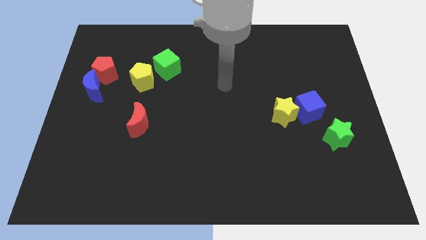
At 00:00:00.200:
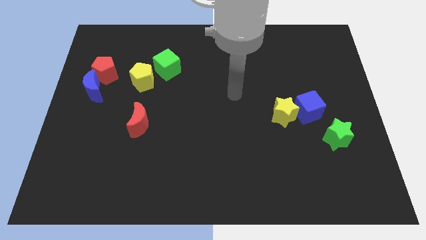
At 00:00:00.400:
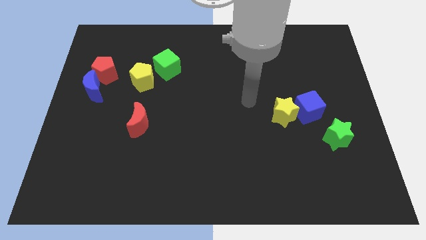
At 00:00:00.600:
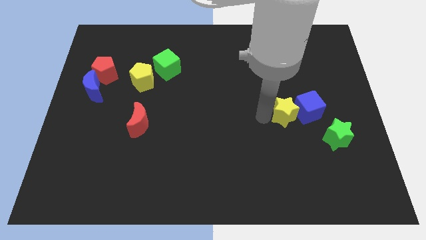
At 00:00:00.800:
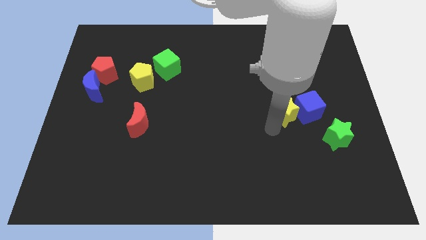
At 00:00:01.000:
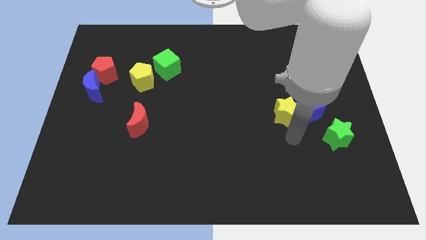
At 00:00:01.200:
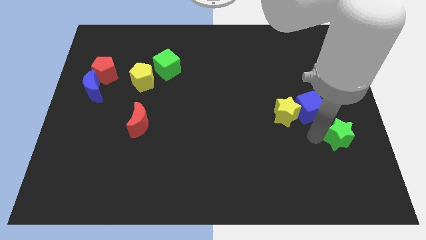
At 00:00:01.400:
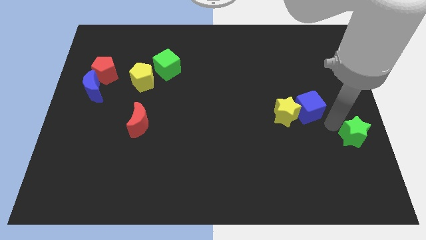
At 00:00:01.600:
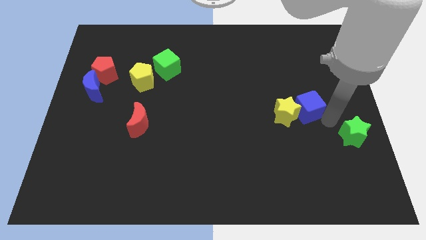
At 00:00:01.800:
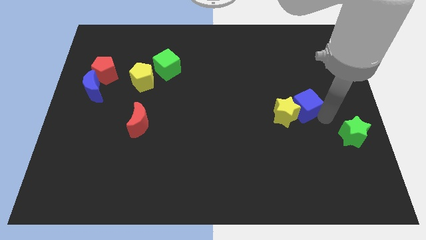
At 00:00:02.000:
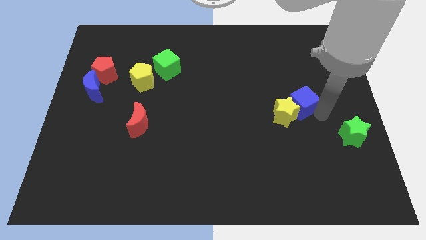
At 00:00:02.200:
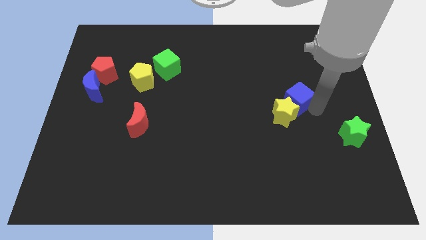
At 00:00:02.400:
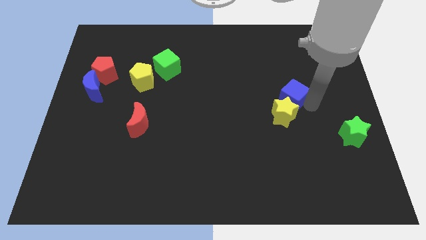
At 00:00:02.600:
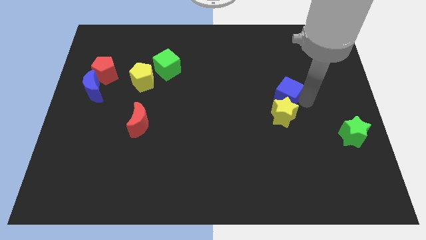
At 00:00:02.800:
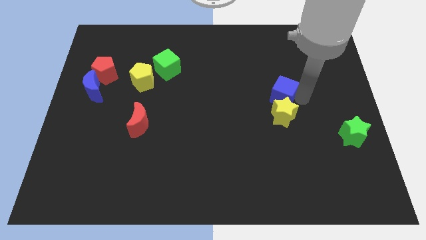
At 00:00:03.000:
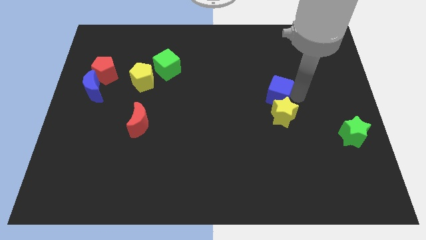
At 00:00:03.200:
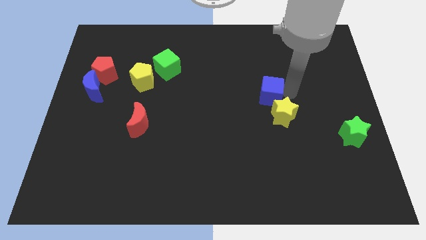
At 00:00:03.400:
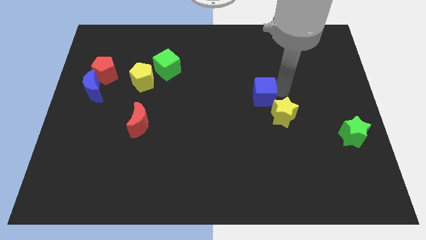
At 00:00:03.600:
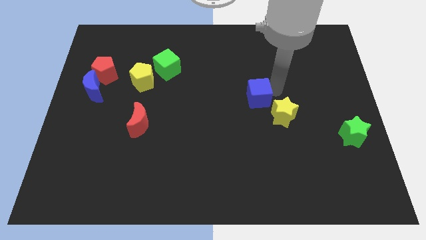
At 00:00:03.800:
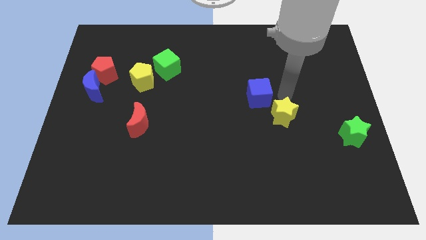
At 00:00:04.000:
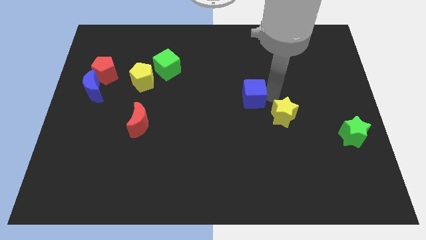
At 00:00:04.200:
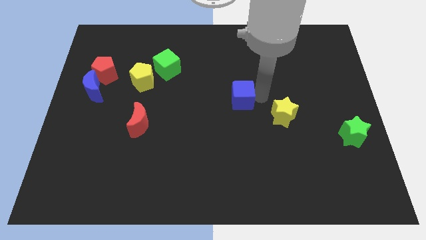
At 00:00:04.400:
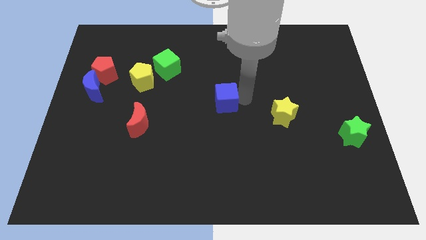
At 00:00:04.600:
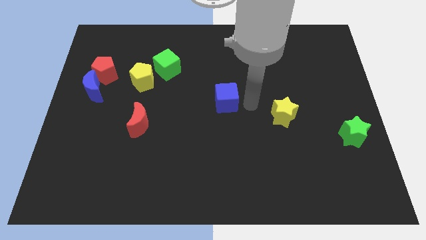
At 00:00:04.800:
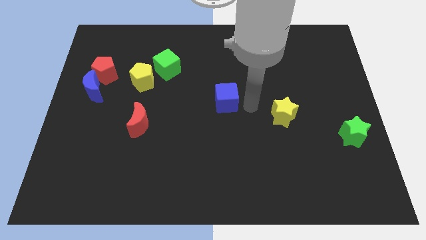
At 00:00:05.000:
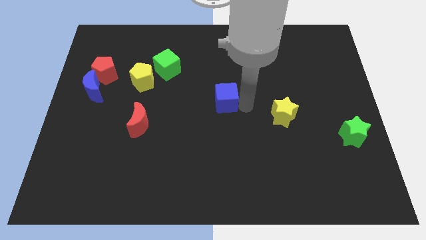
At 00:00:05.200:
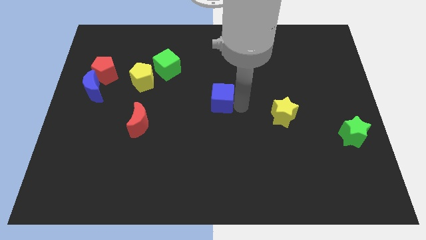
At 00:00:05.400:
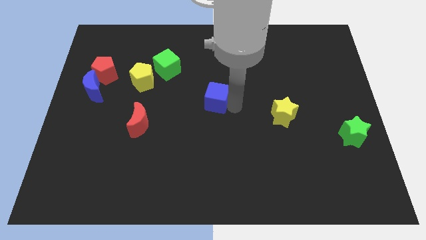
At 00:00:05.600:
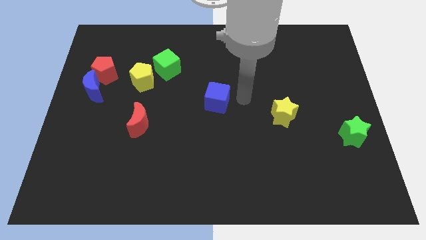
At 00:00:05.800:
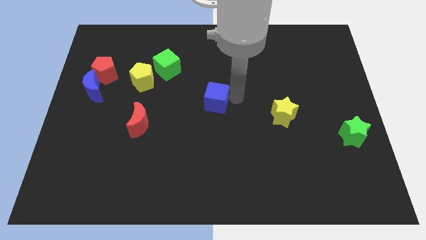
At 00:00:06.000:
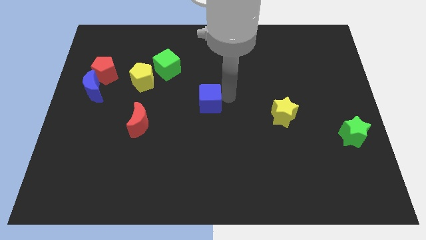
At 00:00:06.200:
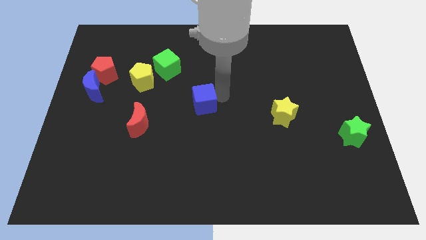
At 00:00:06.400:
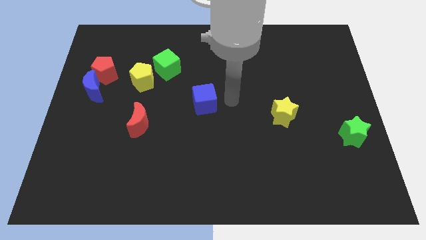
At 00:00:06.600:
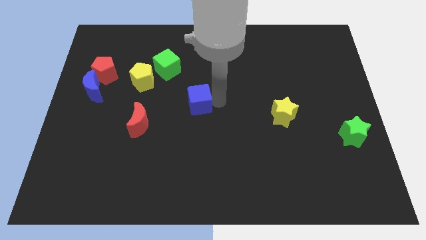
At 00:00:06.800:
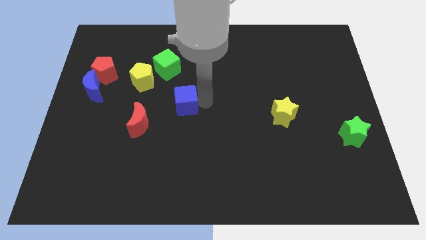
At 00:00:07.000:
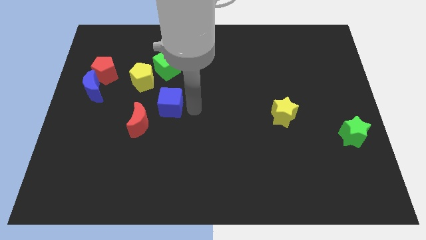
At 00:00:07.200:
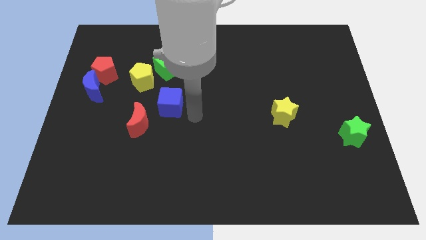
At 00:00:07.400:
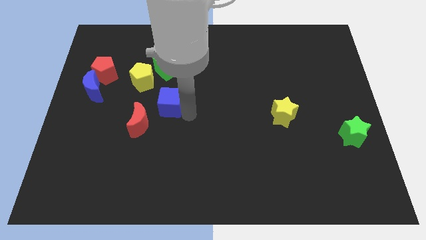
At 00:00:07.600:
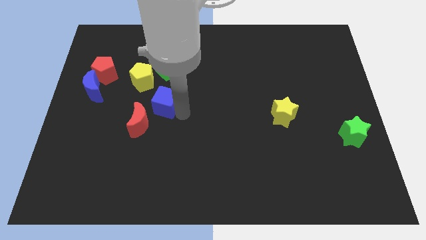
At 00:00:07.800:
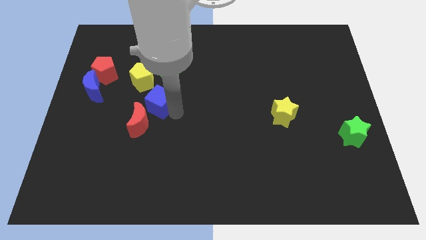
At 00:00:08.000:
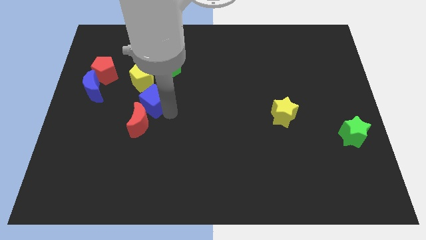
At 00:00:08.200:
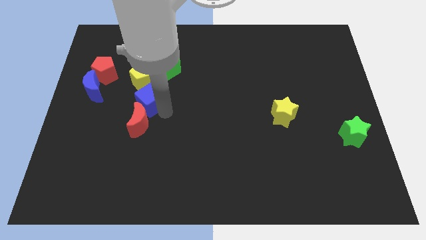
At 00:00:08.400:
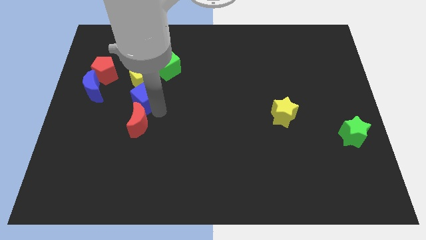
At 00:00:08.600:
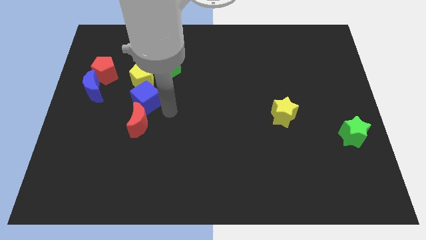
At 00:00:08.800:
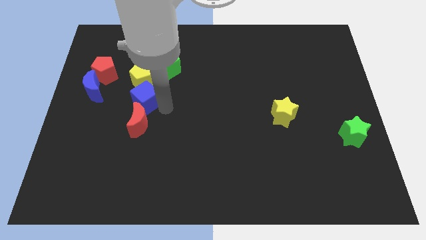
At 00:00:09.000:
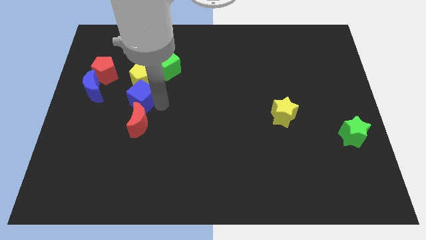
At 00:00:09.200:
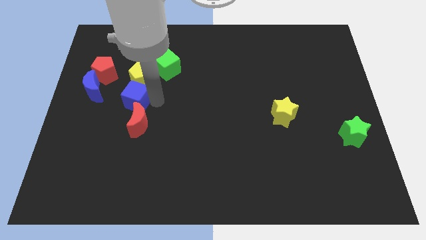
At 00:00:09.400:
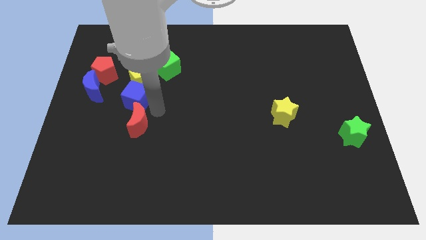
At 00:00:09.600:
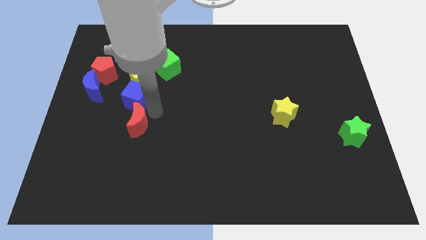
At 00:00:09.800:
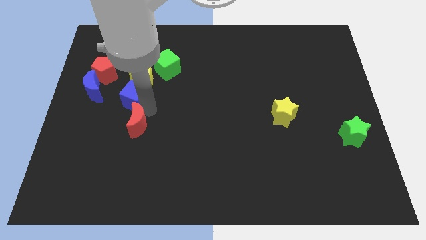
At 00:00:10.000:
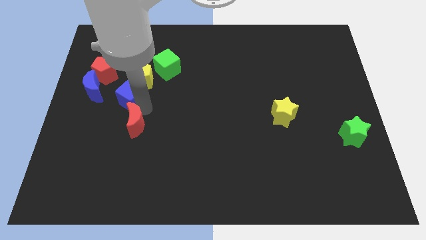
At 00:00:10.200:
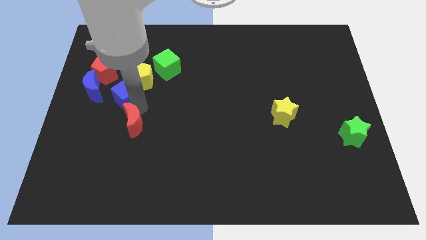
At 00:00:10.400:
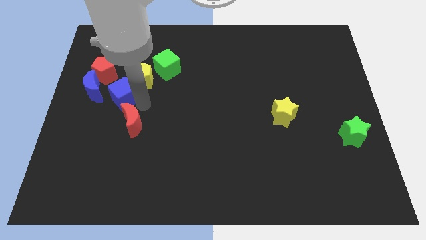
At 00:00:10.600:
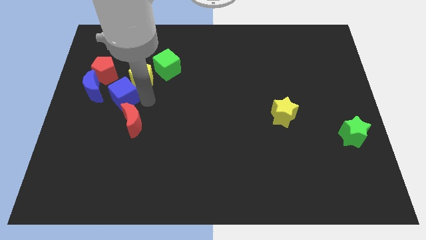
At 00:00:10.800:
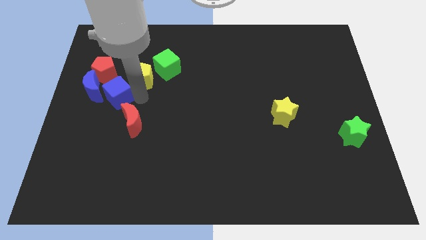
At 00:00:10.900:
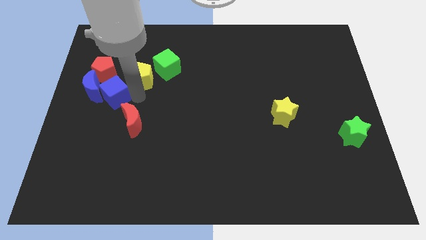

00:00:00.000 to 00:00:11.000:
slide the blue cube towards the blue moon

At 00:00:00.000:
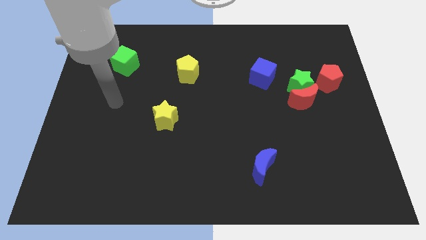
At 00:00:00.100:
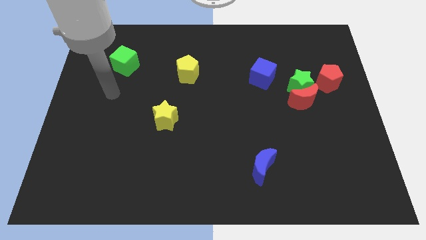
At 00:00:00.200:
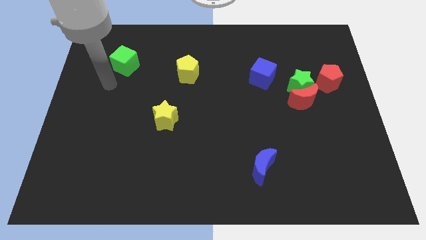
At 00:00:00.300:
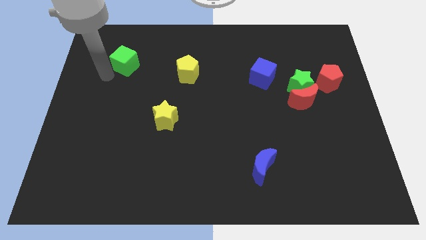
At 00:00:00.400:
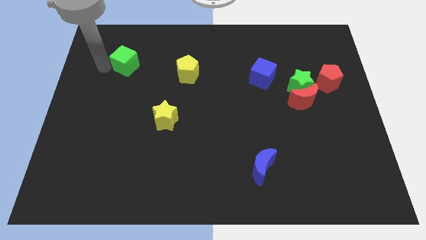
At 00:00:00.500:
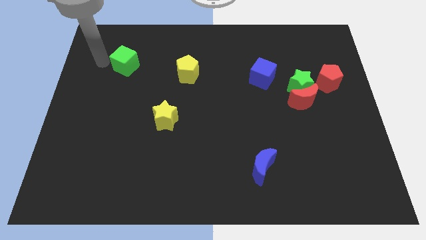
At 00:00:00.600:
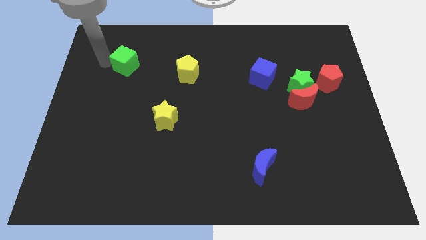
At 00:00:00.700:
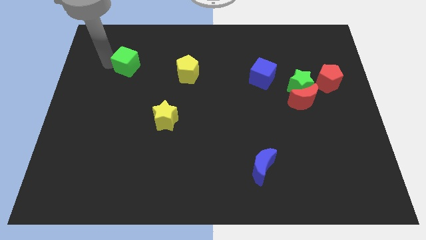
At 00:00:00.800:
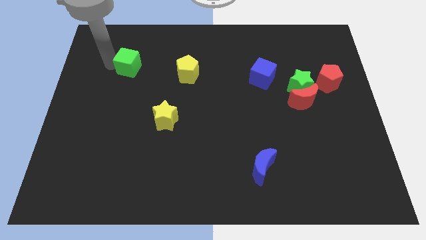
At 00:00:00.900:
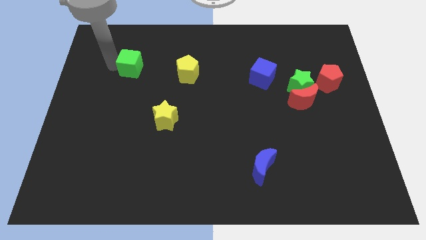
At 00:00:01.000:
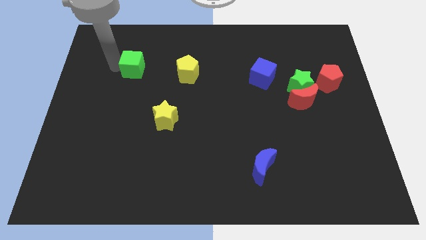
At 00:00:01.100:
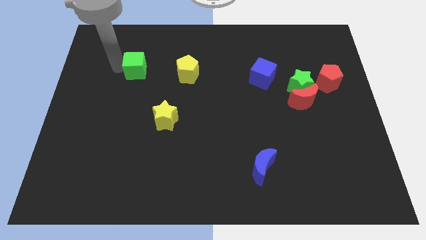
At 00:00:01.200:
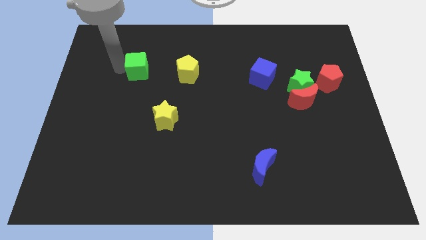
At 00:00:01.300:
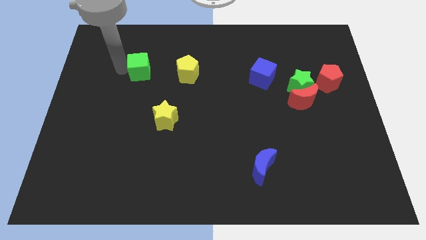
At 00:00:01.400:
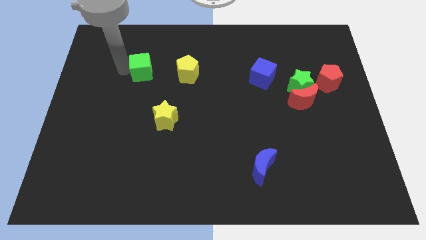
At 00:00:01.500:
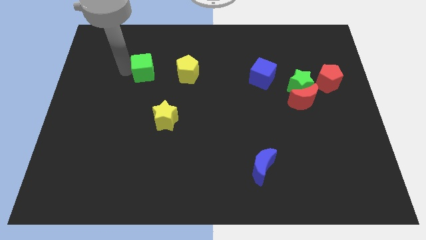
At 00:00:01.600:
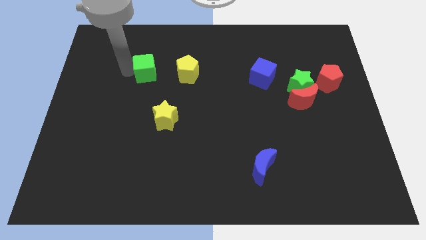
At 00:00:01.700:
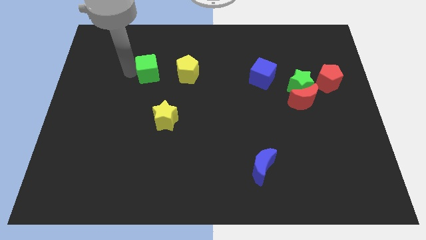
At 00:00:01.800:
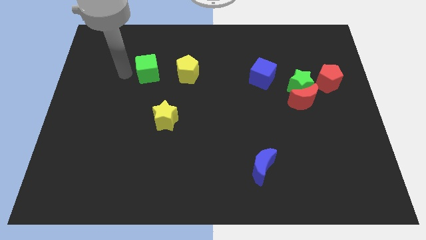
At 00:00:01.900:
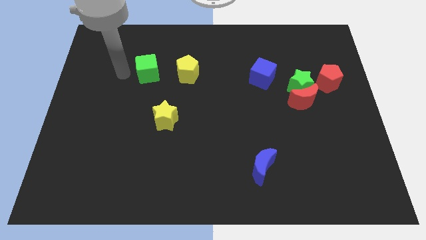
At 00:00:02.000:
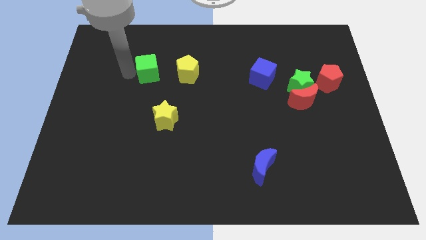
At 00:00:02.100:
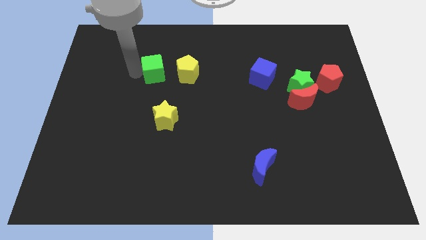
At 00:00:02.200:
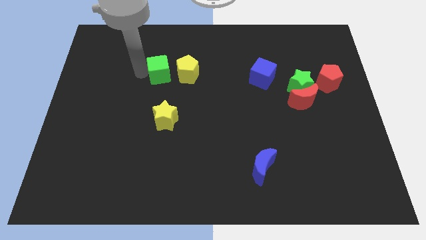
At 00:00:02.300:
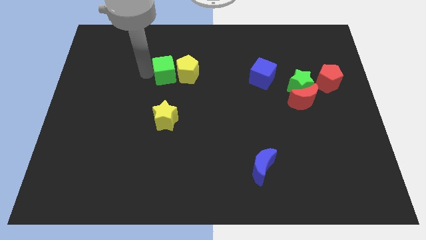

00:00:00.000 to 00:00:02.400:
put the green cube to the yellow pentagon
